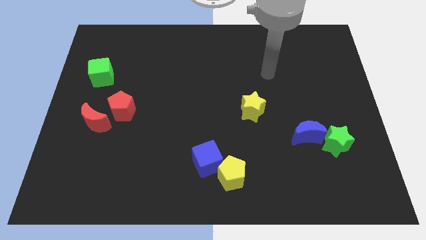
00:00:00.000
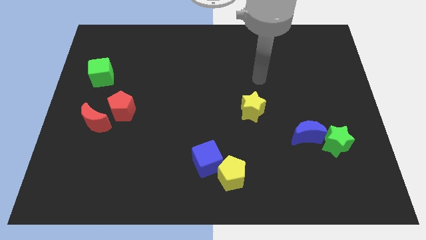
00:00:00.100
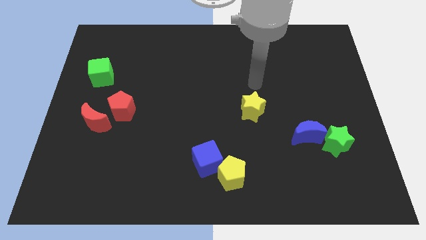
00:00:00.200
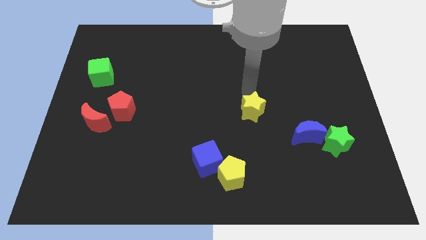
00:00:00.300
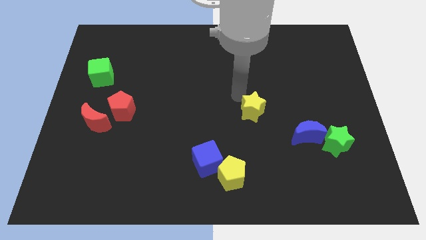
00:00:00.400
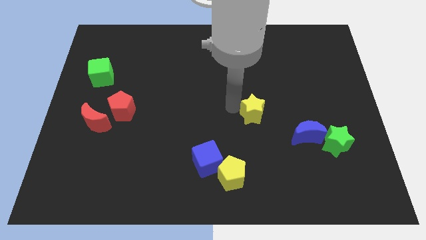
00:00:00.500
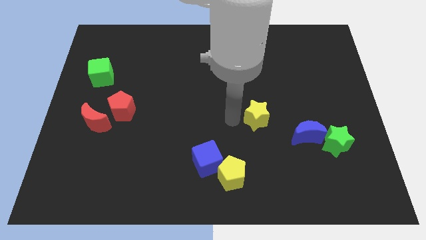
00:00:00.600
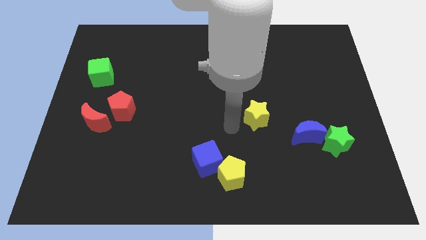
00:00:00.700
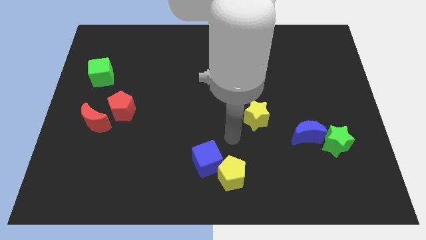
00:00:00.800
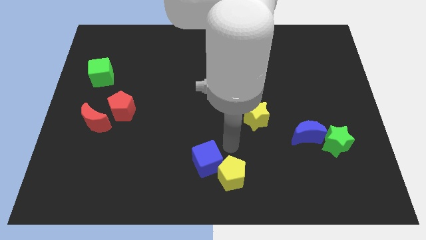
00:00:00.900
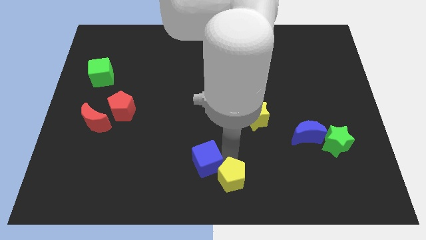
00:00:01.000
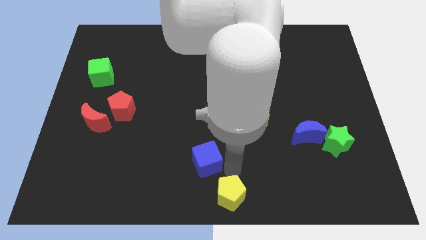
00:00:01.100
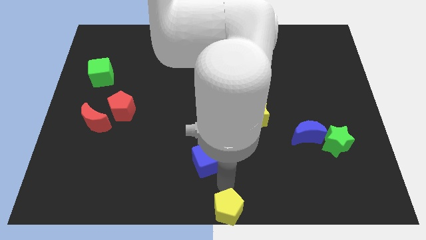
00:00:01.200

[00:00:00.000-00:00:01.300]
pull the blue cube apart from the yellow pentagon

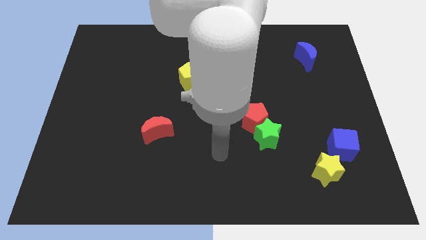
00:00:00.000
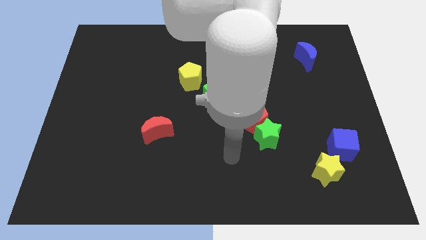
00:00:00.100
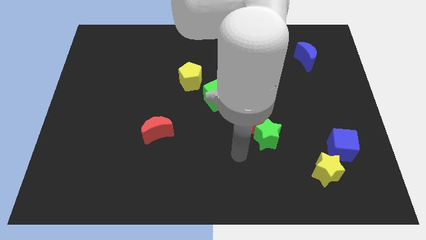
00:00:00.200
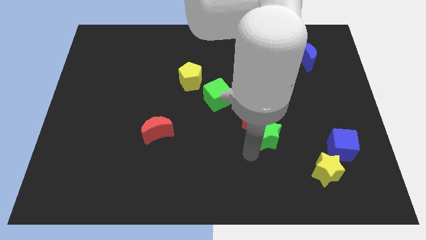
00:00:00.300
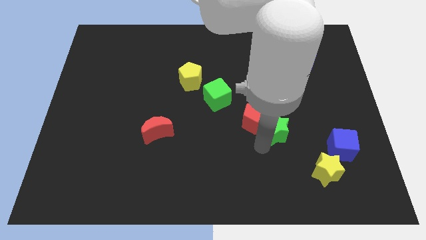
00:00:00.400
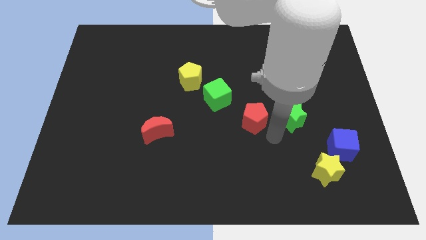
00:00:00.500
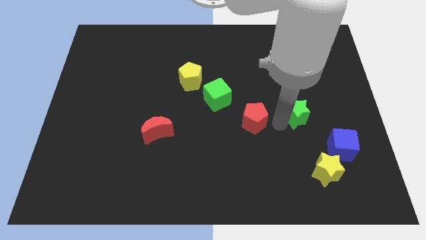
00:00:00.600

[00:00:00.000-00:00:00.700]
pull the red pentagon apart from the green star

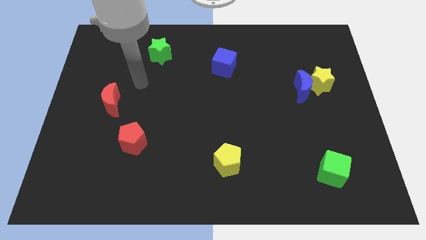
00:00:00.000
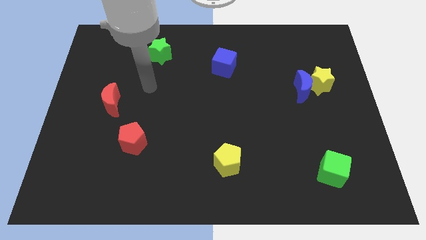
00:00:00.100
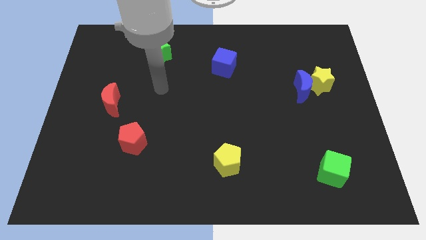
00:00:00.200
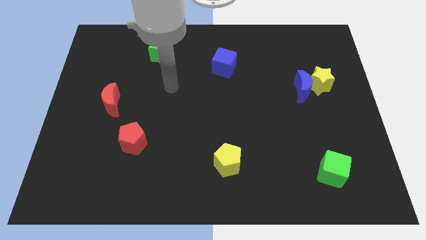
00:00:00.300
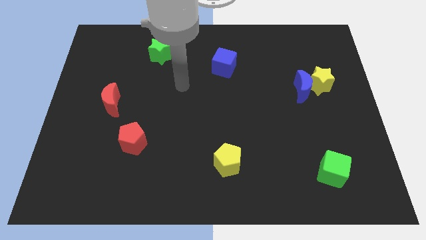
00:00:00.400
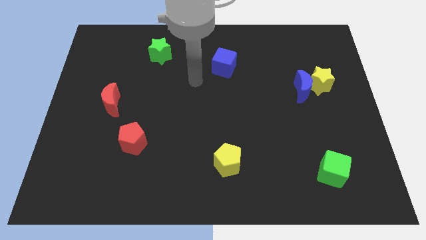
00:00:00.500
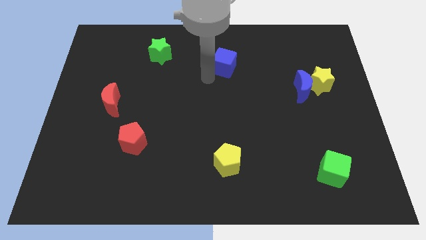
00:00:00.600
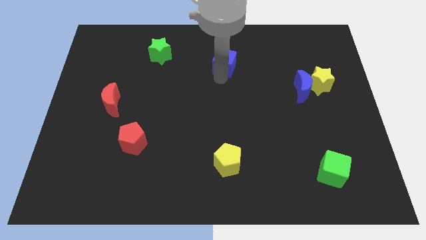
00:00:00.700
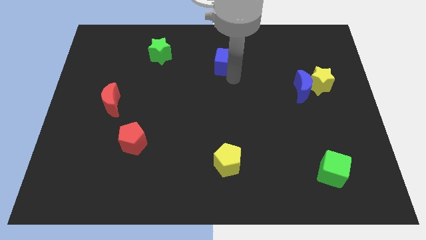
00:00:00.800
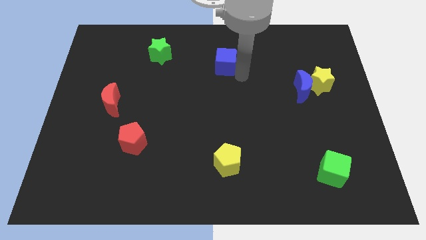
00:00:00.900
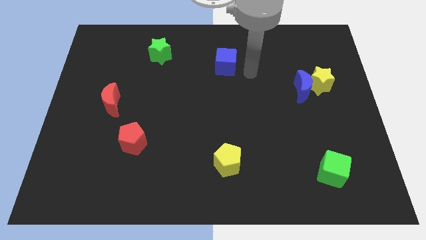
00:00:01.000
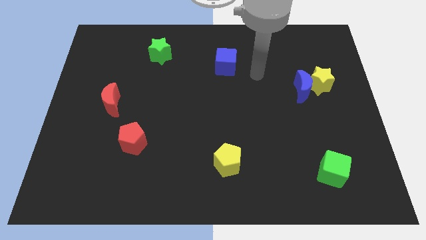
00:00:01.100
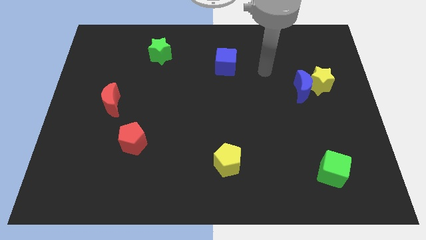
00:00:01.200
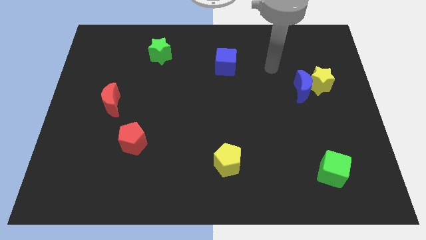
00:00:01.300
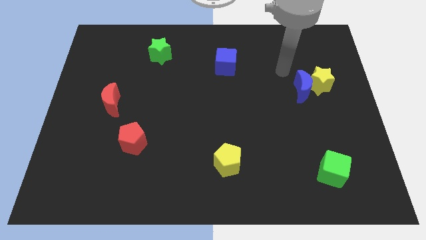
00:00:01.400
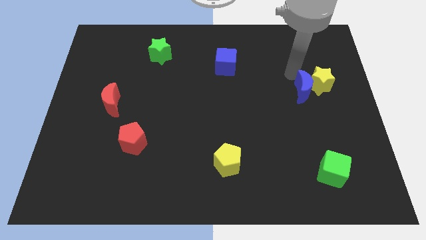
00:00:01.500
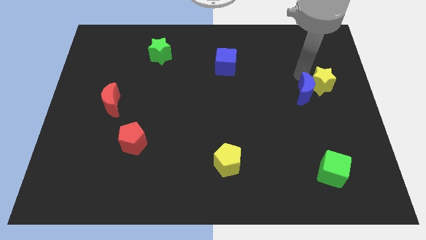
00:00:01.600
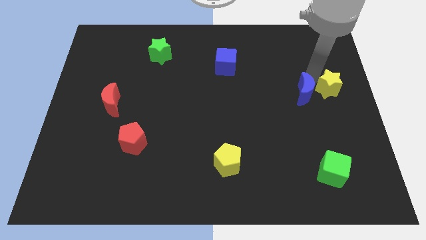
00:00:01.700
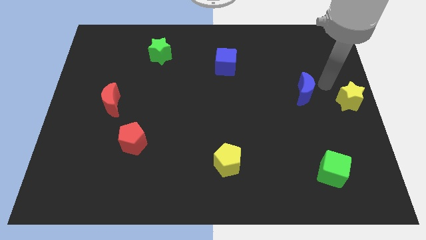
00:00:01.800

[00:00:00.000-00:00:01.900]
separate the blue moon from the yellow star

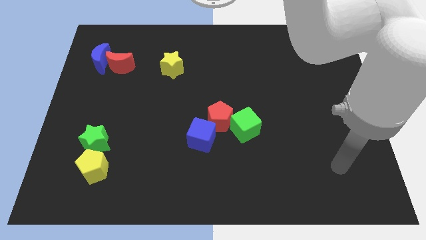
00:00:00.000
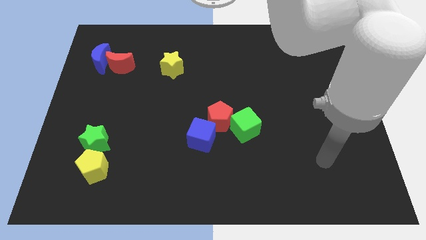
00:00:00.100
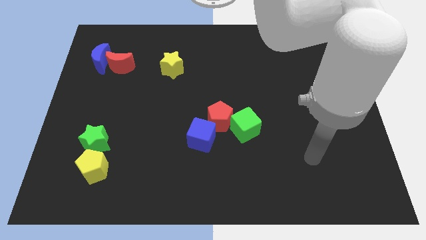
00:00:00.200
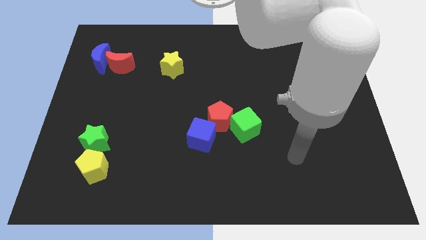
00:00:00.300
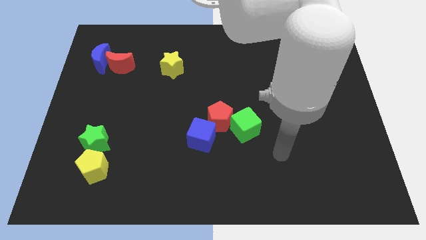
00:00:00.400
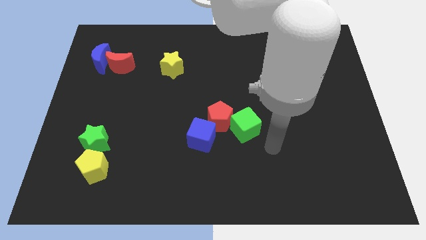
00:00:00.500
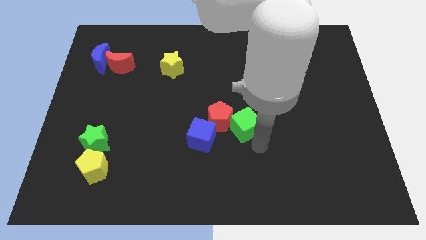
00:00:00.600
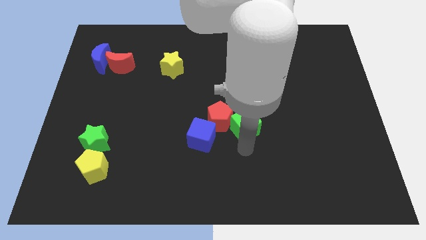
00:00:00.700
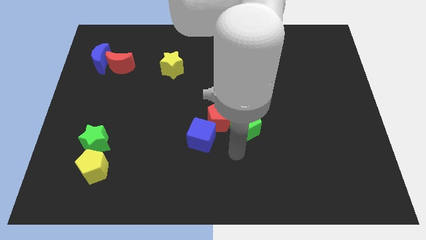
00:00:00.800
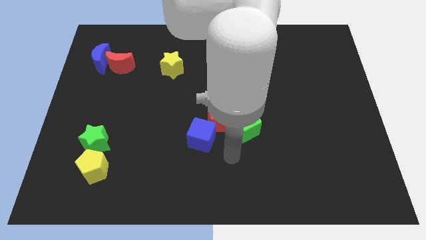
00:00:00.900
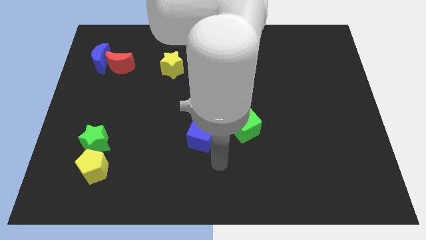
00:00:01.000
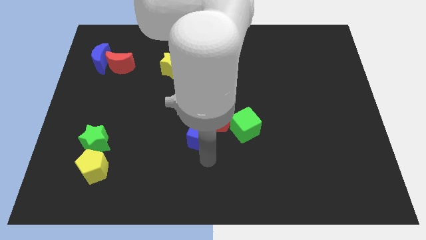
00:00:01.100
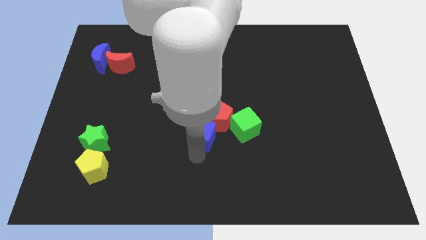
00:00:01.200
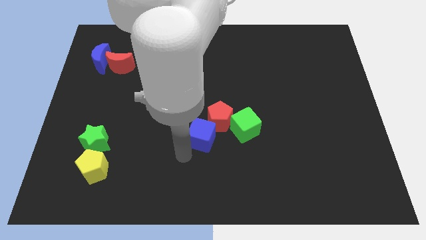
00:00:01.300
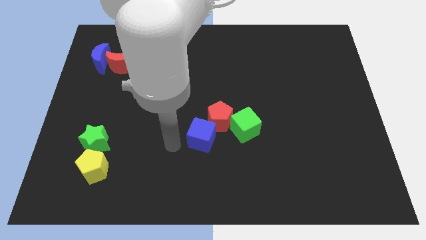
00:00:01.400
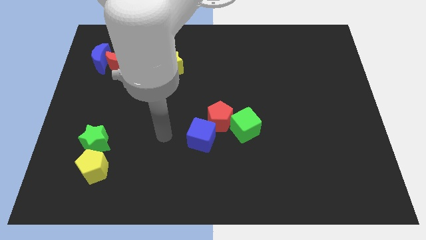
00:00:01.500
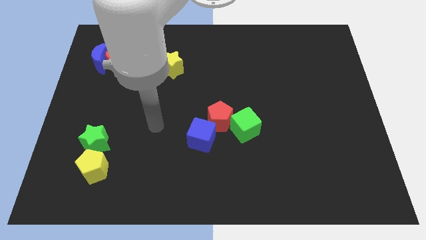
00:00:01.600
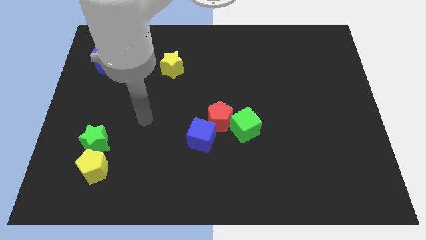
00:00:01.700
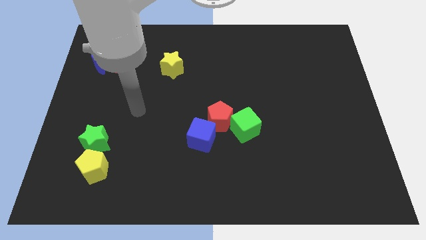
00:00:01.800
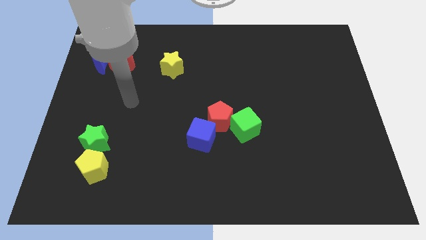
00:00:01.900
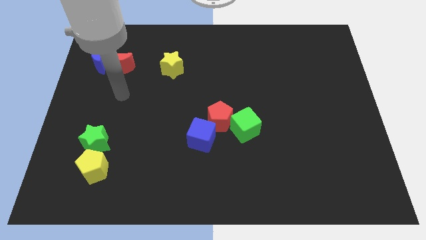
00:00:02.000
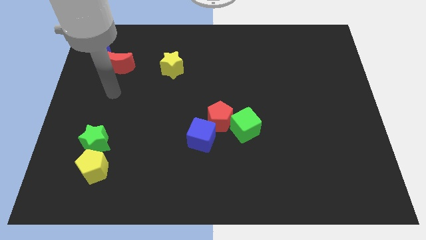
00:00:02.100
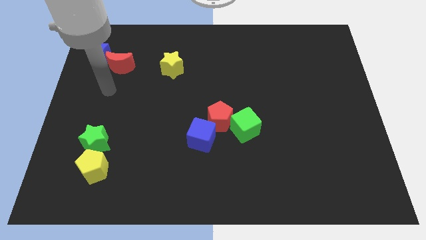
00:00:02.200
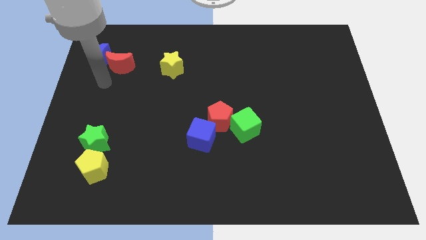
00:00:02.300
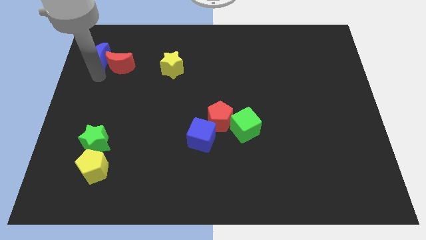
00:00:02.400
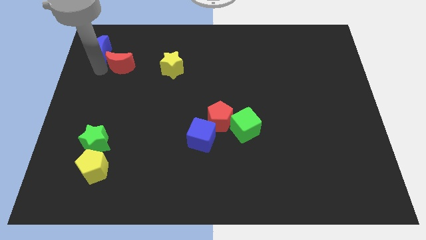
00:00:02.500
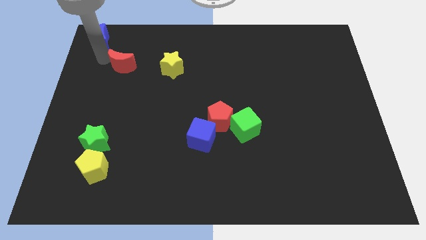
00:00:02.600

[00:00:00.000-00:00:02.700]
separate the red moon from the blue moon

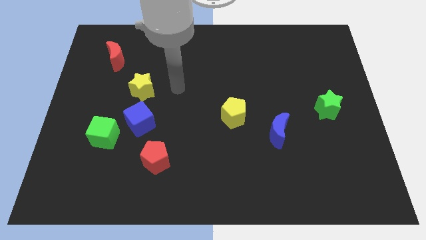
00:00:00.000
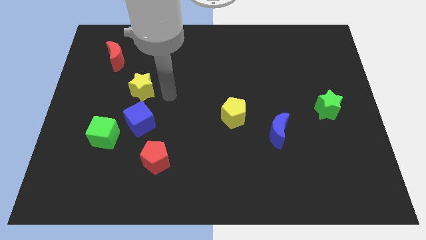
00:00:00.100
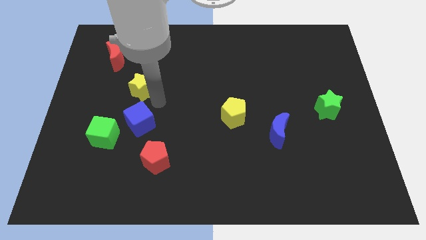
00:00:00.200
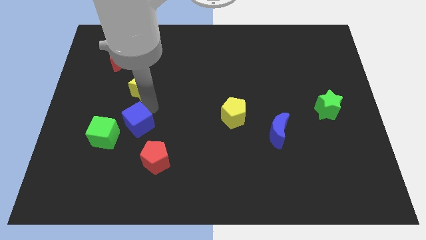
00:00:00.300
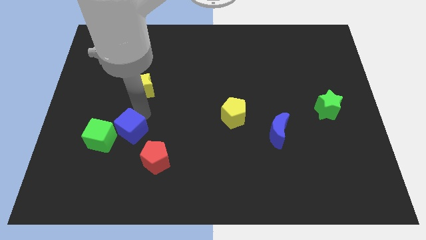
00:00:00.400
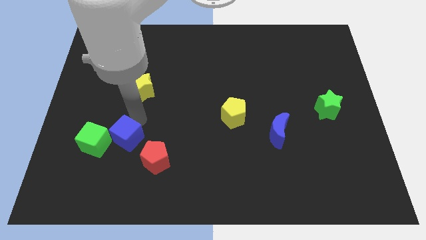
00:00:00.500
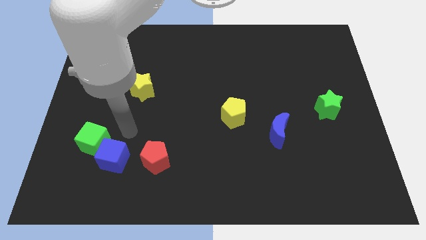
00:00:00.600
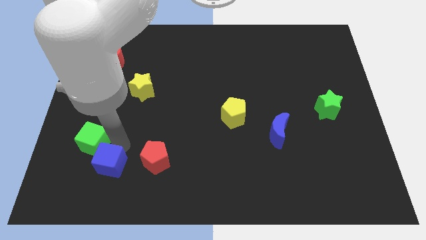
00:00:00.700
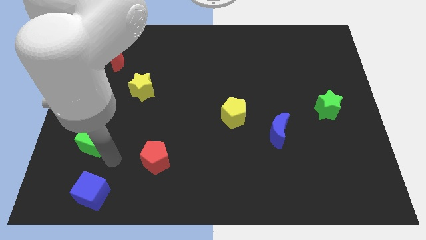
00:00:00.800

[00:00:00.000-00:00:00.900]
move the green cube away from the blue cube

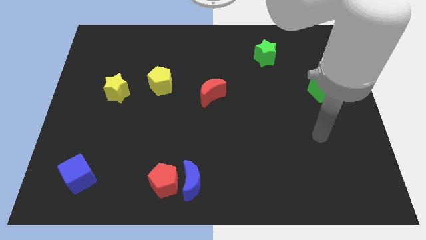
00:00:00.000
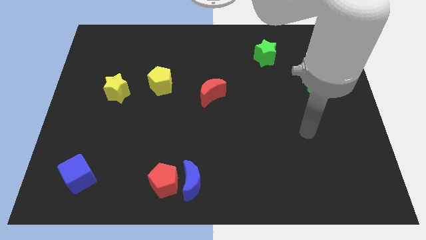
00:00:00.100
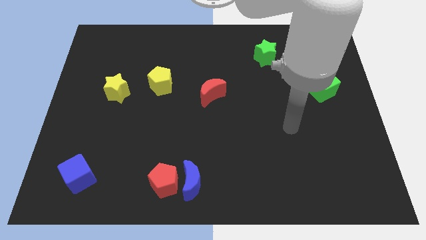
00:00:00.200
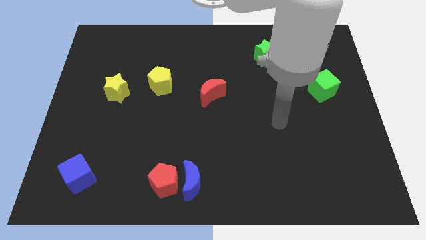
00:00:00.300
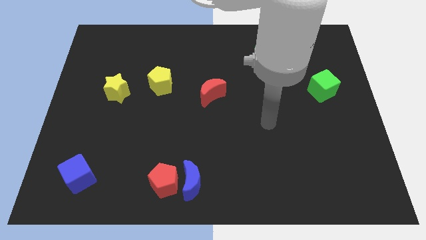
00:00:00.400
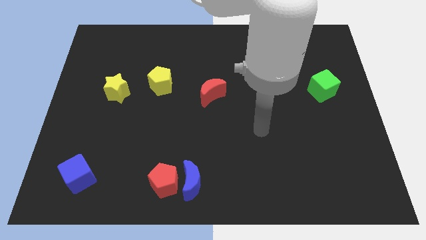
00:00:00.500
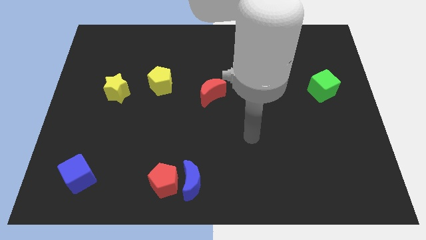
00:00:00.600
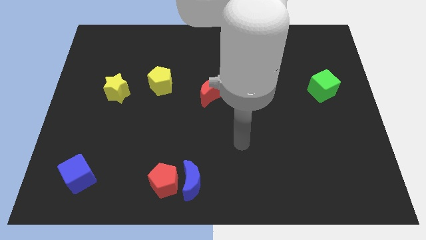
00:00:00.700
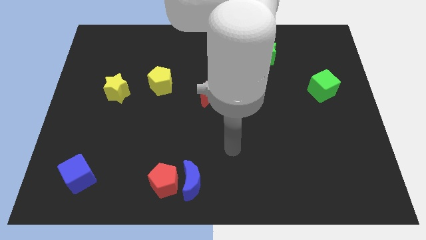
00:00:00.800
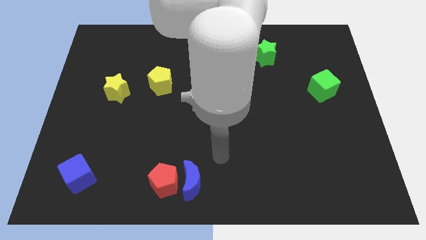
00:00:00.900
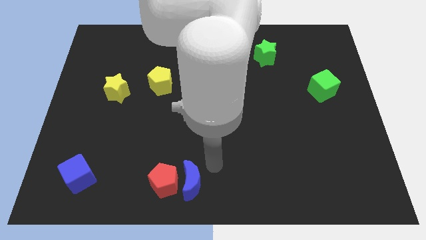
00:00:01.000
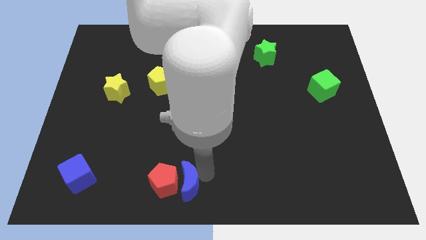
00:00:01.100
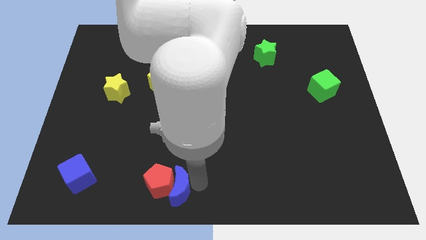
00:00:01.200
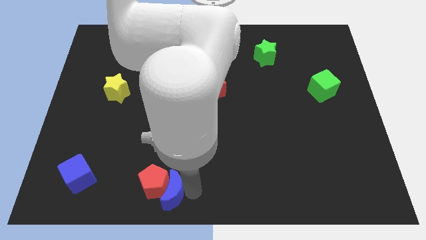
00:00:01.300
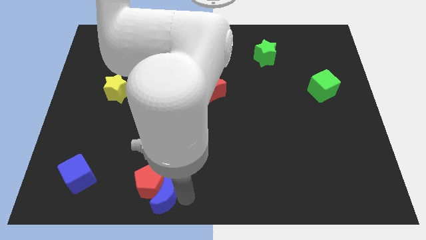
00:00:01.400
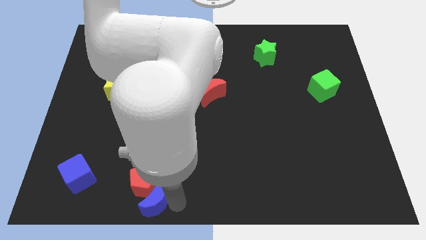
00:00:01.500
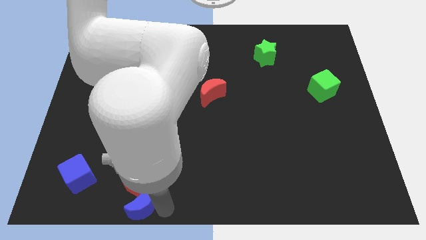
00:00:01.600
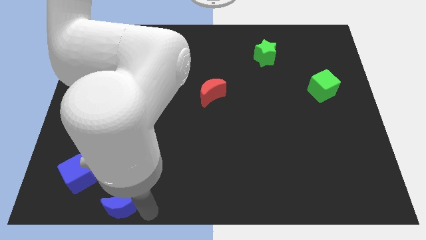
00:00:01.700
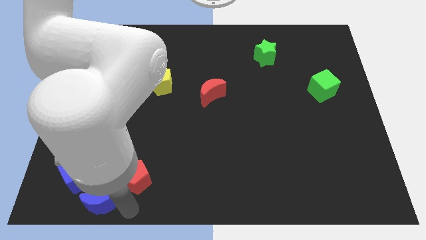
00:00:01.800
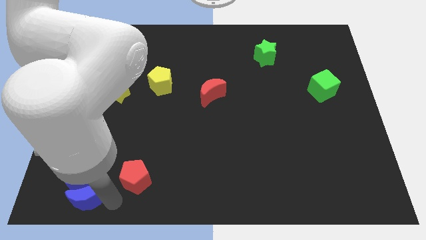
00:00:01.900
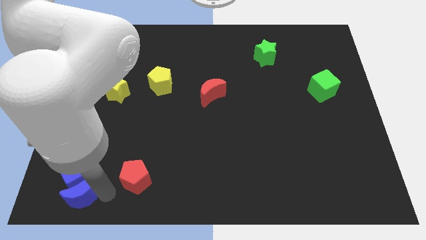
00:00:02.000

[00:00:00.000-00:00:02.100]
pull the red pentagon apart from the blue moon
